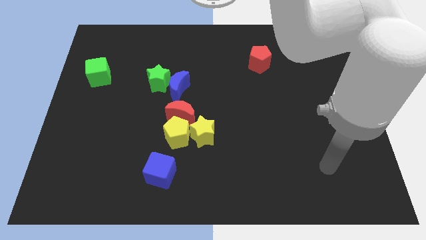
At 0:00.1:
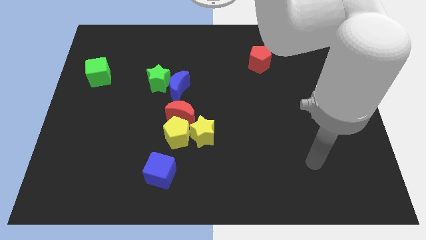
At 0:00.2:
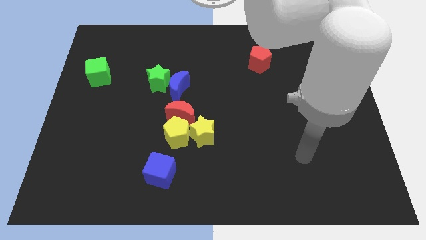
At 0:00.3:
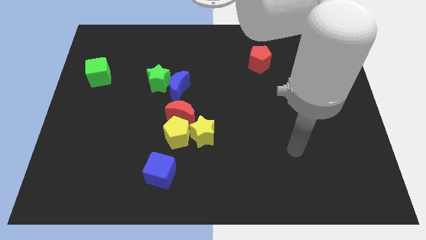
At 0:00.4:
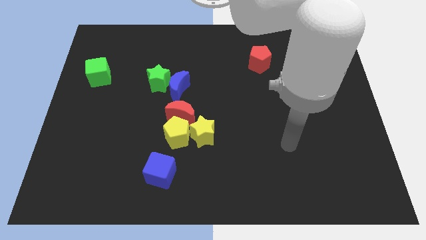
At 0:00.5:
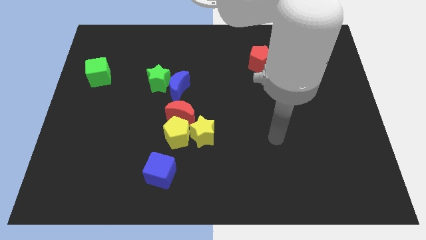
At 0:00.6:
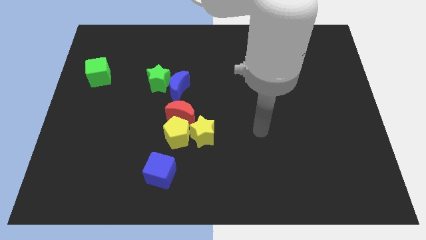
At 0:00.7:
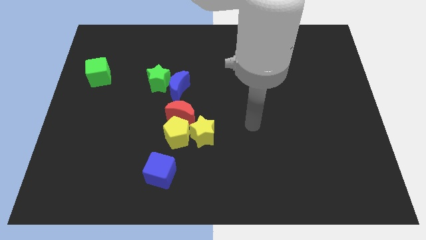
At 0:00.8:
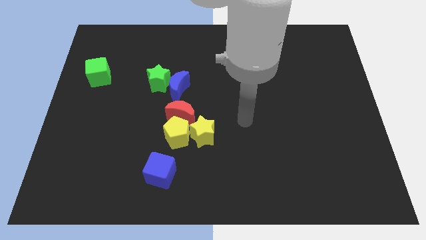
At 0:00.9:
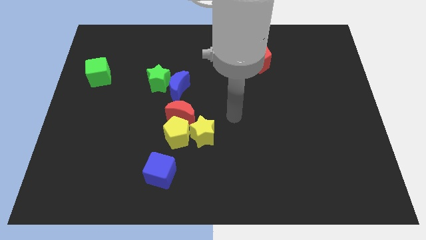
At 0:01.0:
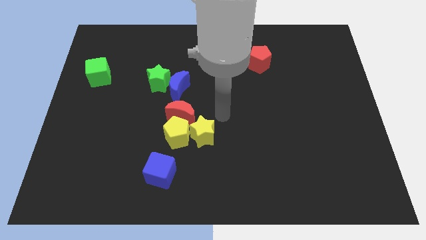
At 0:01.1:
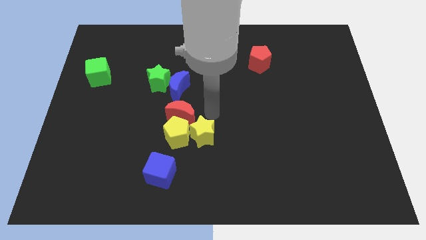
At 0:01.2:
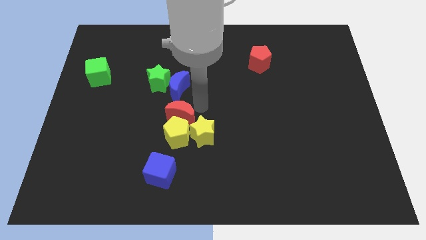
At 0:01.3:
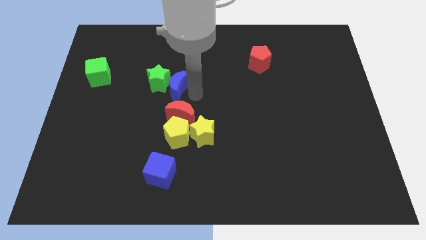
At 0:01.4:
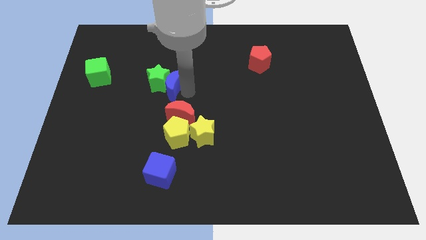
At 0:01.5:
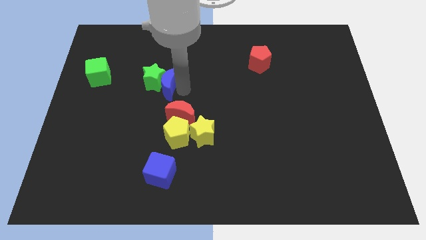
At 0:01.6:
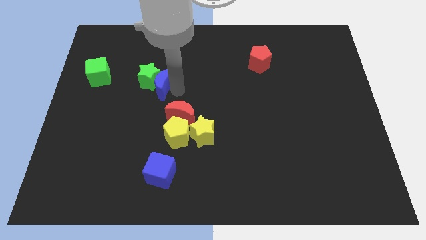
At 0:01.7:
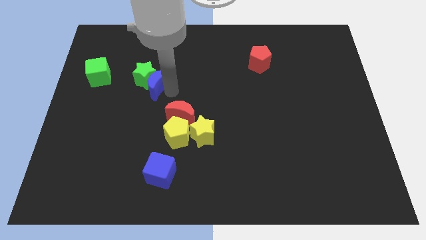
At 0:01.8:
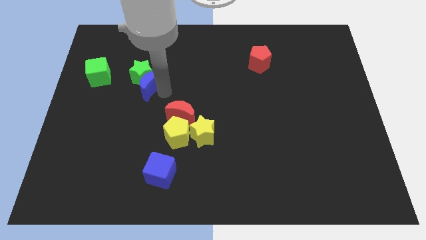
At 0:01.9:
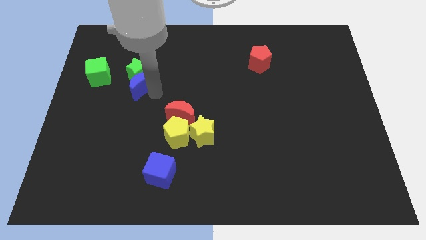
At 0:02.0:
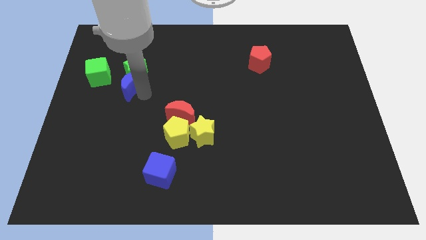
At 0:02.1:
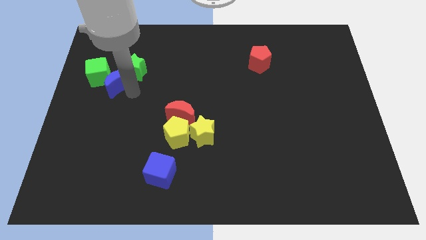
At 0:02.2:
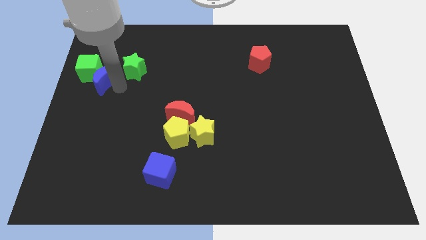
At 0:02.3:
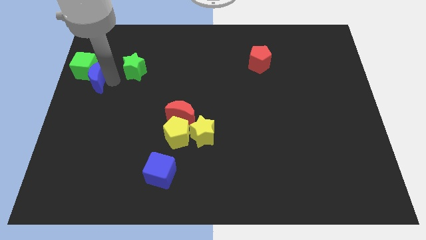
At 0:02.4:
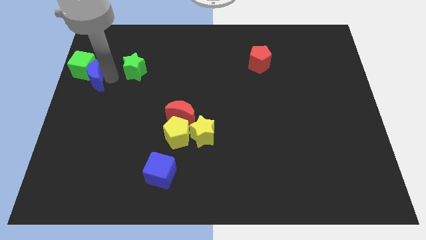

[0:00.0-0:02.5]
move the green star away from the blue moon

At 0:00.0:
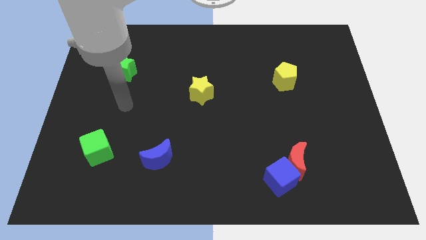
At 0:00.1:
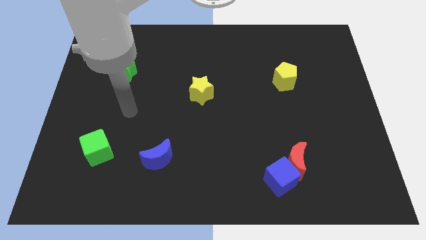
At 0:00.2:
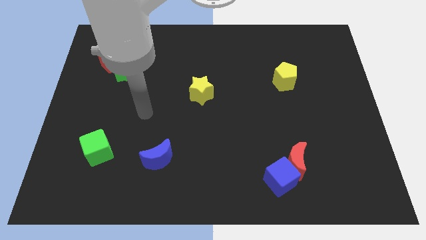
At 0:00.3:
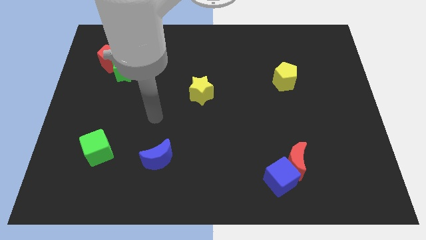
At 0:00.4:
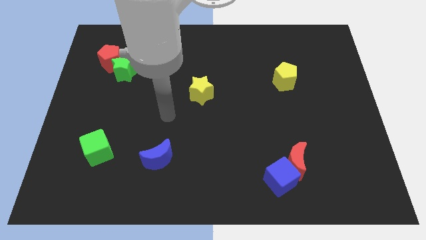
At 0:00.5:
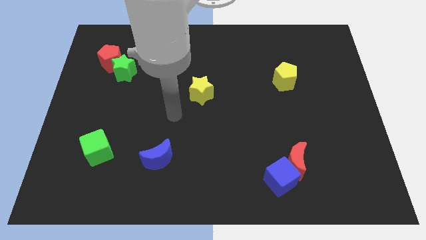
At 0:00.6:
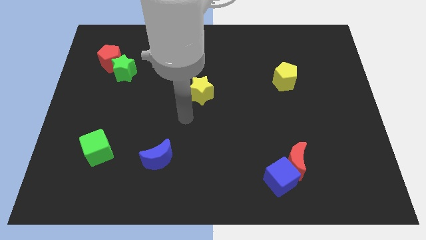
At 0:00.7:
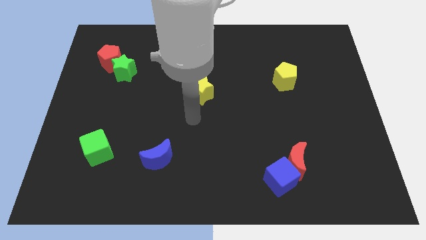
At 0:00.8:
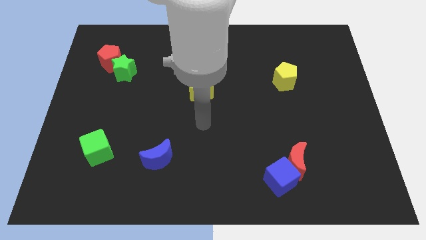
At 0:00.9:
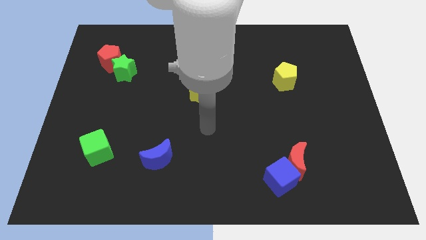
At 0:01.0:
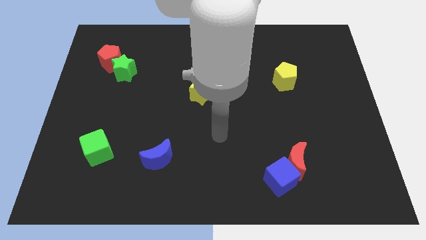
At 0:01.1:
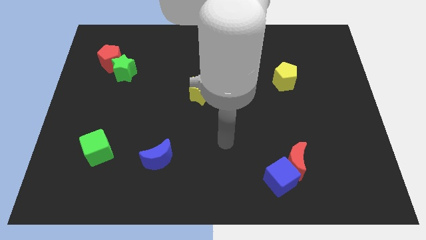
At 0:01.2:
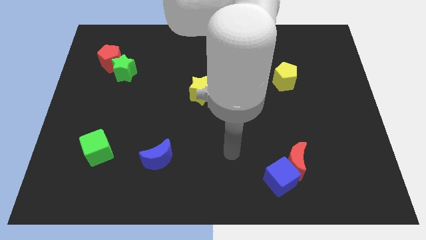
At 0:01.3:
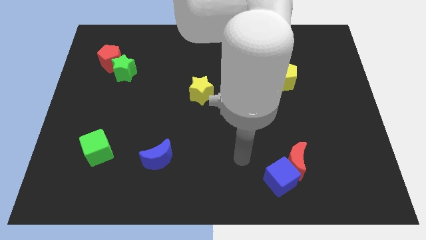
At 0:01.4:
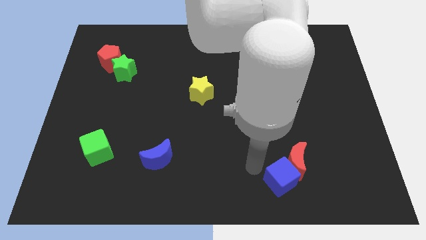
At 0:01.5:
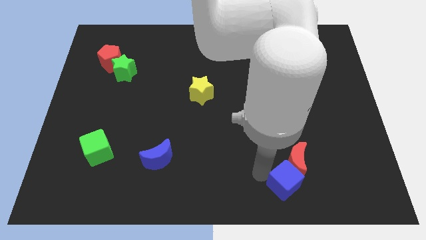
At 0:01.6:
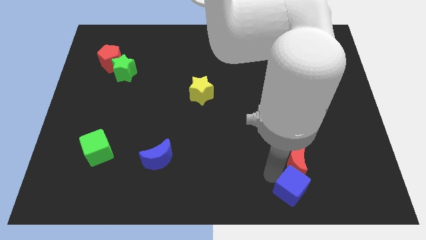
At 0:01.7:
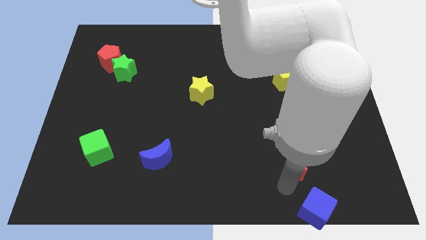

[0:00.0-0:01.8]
move the red moon away from the blue cube

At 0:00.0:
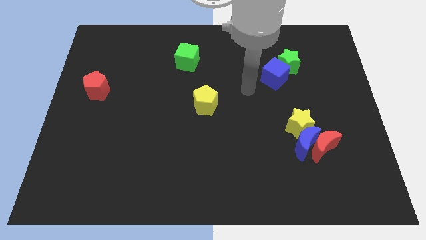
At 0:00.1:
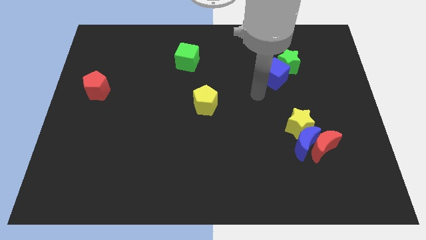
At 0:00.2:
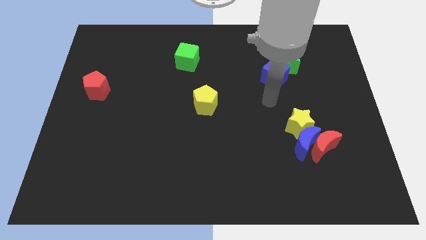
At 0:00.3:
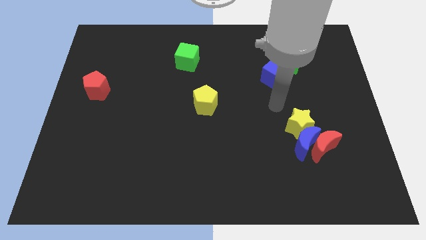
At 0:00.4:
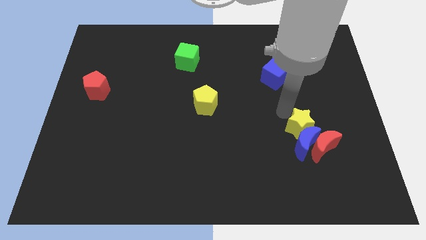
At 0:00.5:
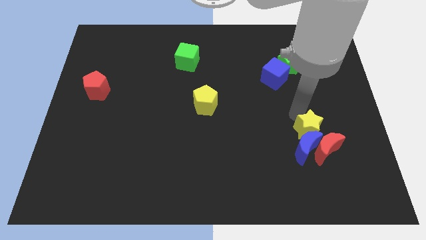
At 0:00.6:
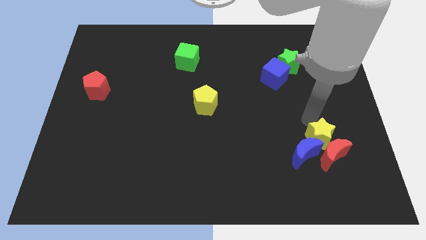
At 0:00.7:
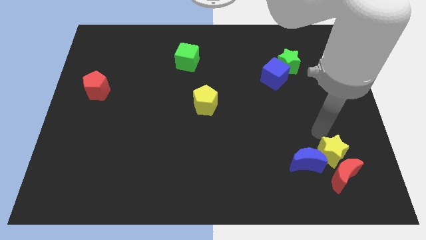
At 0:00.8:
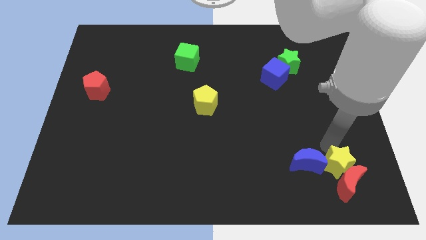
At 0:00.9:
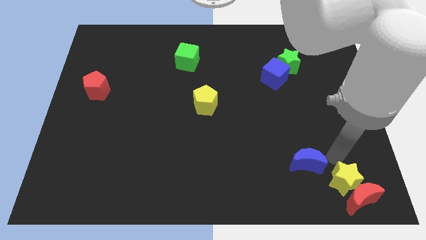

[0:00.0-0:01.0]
move the blue moon away from the red moon and yellow star

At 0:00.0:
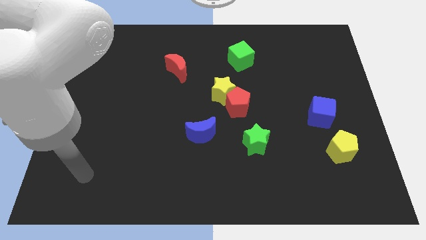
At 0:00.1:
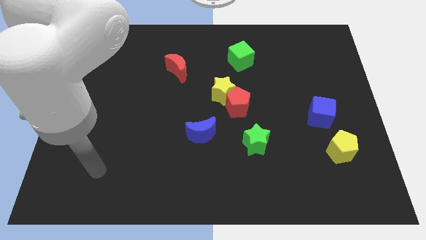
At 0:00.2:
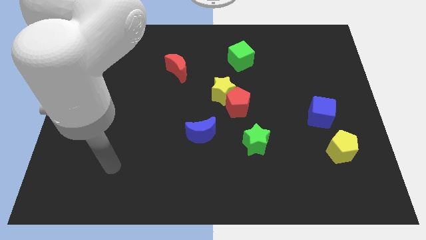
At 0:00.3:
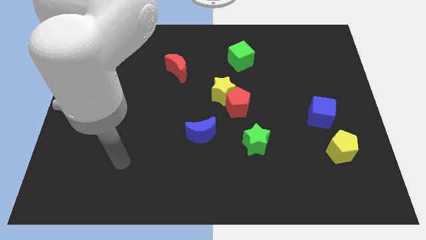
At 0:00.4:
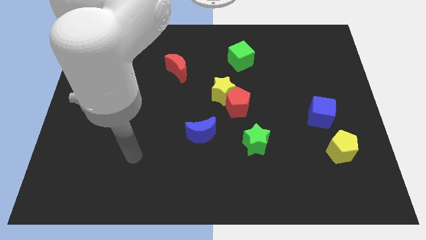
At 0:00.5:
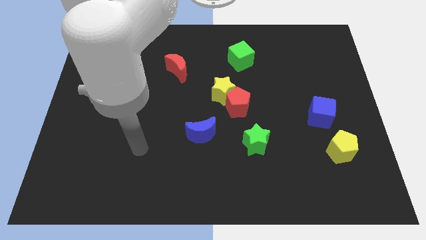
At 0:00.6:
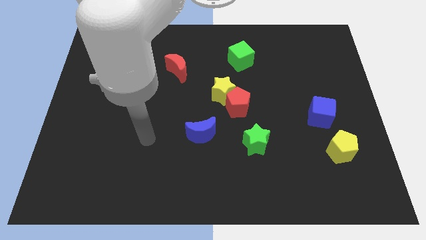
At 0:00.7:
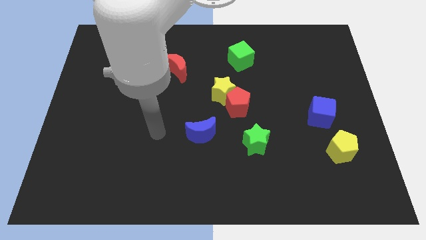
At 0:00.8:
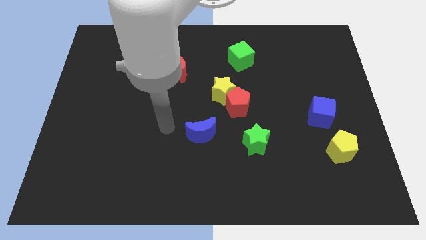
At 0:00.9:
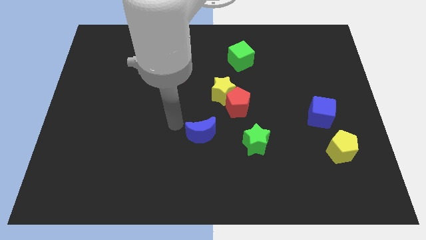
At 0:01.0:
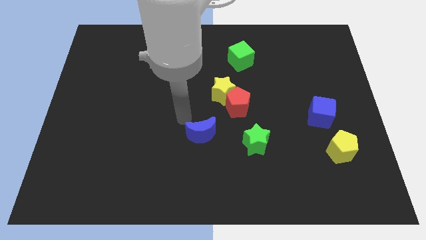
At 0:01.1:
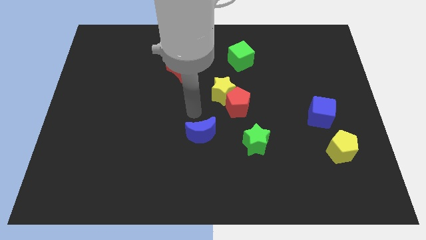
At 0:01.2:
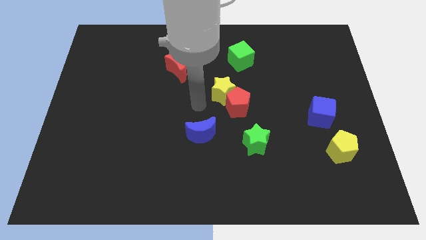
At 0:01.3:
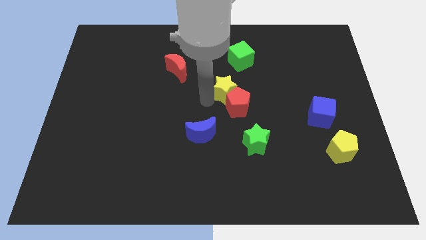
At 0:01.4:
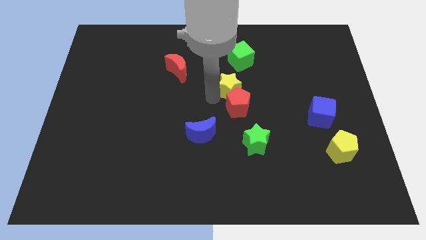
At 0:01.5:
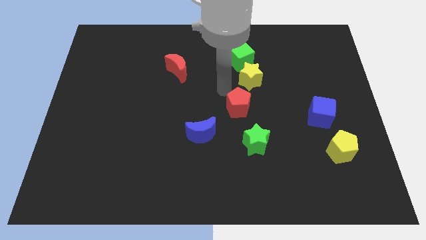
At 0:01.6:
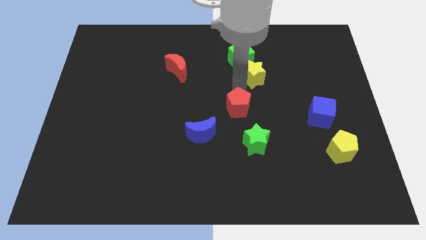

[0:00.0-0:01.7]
separate the red pentagon from the yellow star

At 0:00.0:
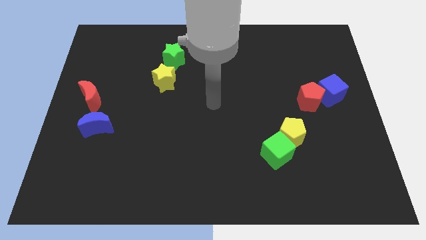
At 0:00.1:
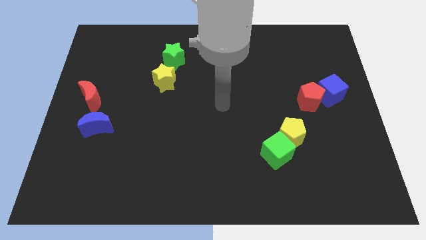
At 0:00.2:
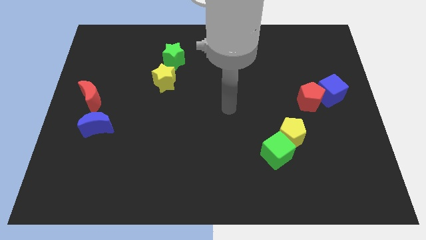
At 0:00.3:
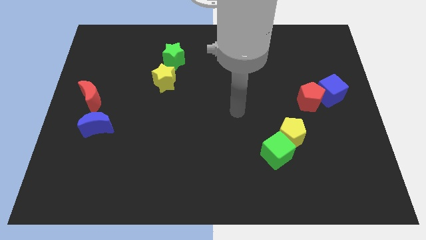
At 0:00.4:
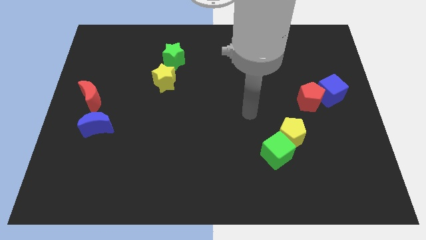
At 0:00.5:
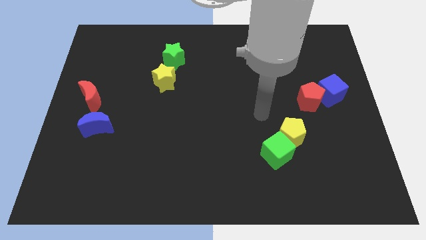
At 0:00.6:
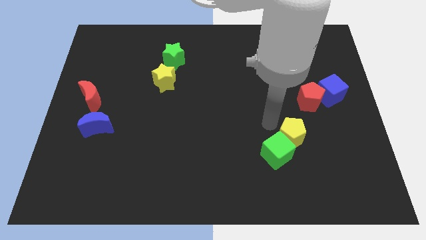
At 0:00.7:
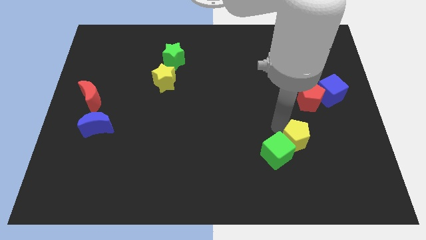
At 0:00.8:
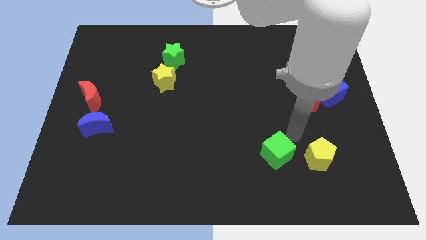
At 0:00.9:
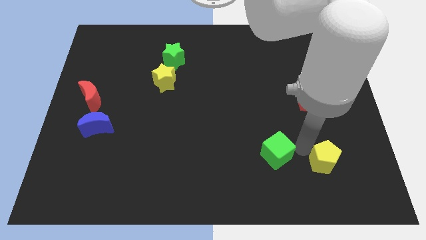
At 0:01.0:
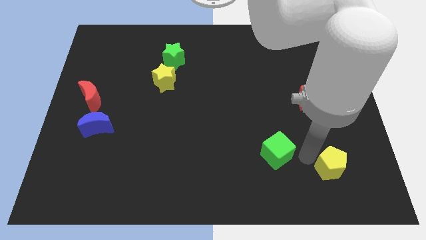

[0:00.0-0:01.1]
move the green cube away from the yellow pentagon

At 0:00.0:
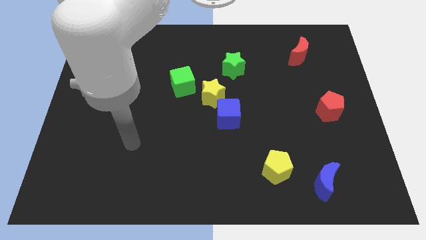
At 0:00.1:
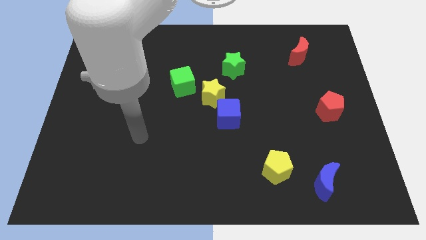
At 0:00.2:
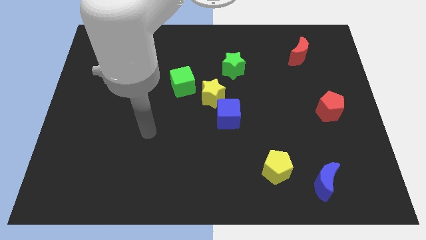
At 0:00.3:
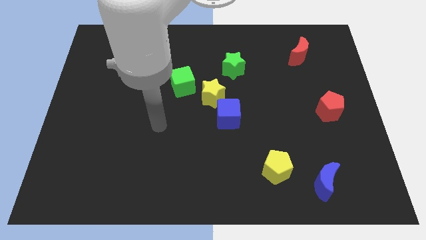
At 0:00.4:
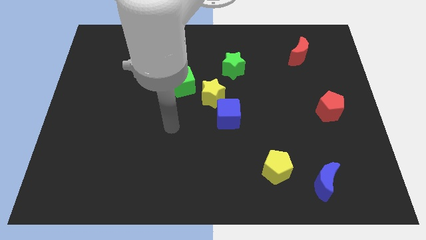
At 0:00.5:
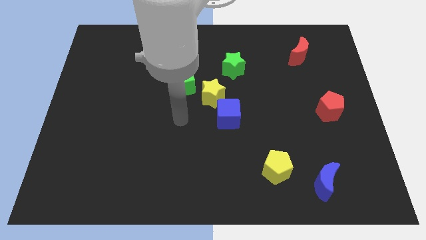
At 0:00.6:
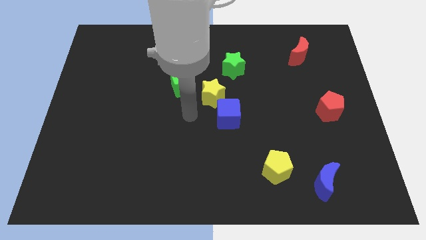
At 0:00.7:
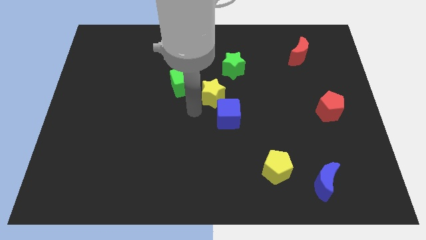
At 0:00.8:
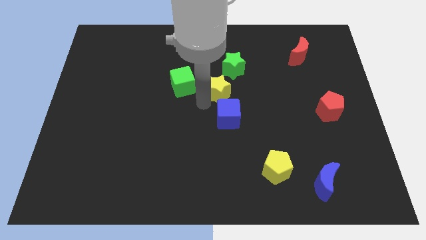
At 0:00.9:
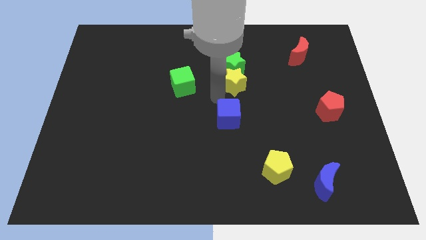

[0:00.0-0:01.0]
pull the blue cube apart from the yellow star

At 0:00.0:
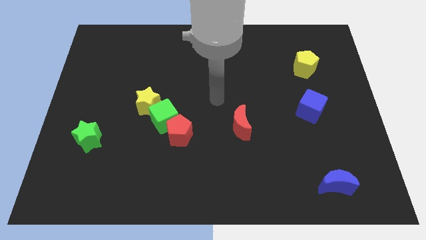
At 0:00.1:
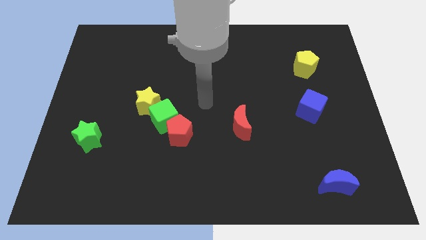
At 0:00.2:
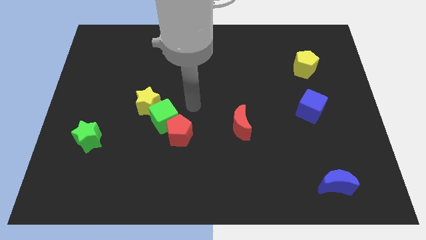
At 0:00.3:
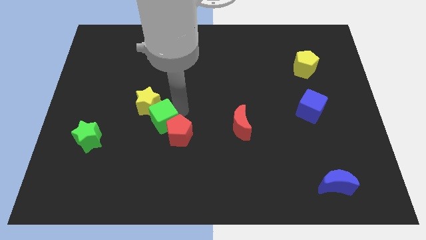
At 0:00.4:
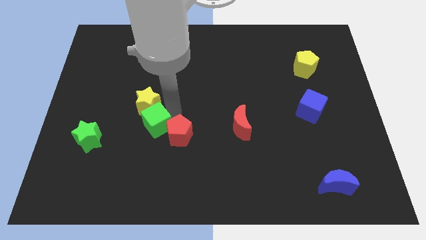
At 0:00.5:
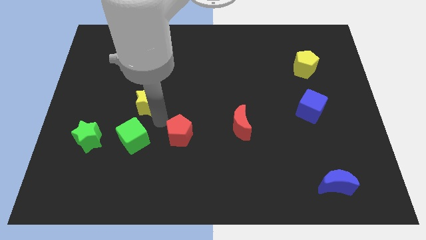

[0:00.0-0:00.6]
pull the red pentagon apart from the green cube
